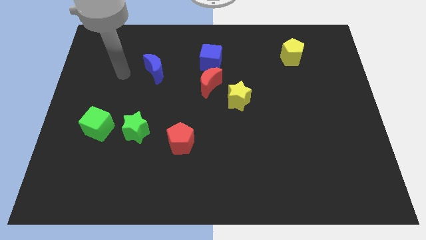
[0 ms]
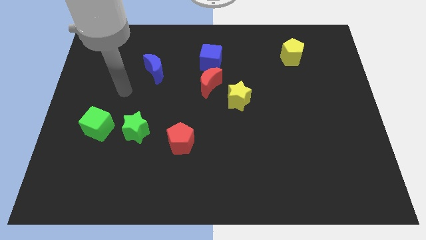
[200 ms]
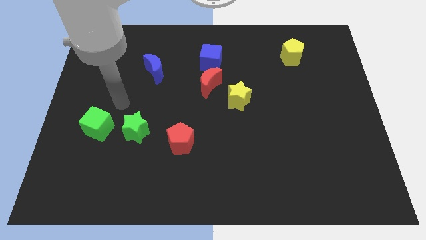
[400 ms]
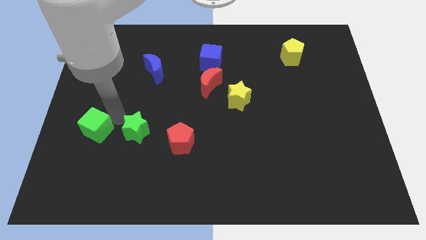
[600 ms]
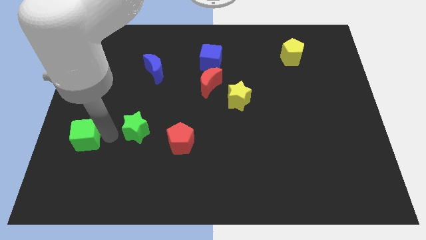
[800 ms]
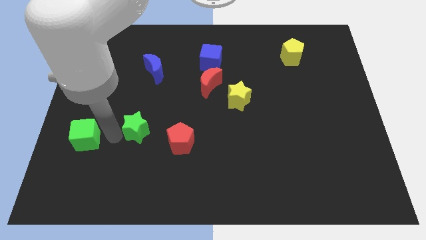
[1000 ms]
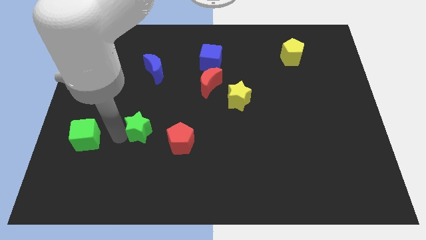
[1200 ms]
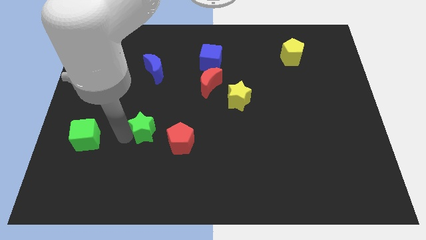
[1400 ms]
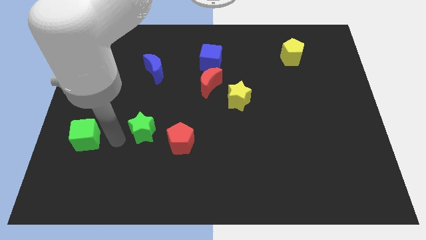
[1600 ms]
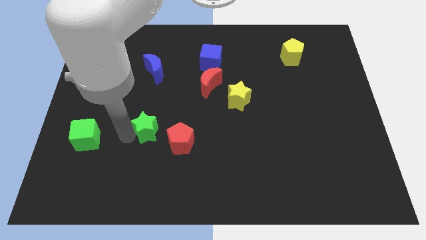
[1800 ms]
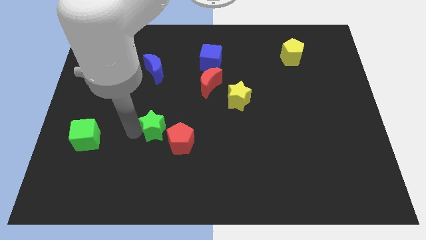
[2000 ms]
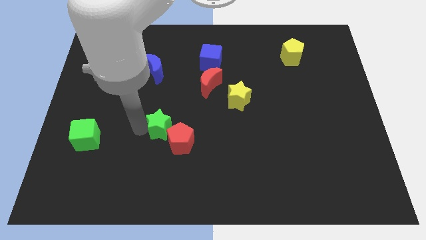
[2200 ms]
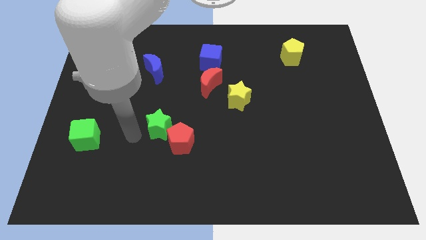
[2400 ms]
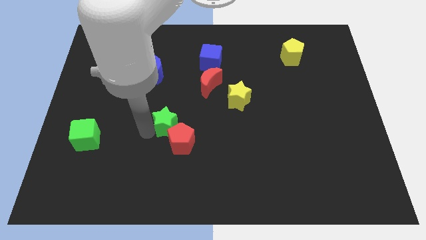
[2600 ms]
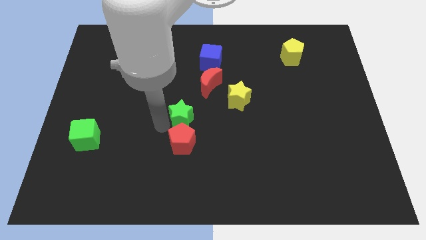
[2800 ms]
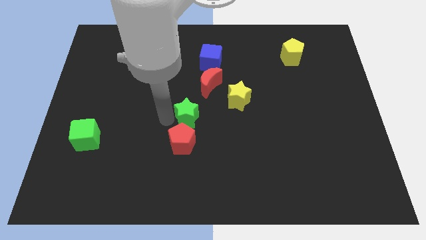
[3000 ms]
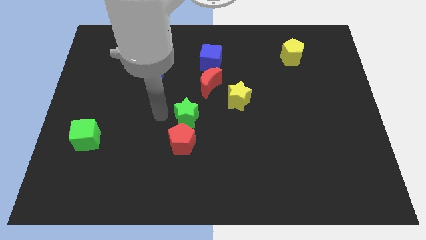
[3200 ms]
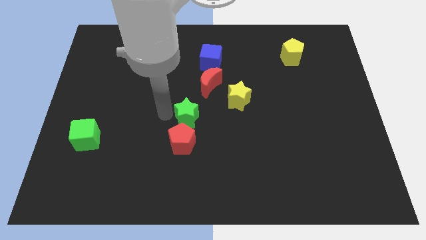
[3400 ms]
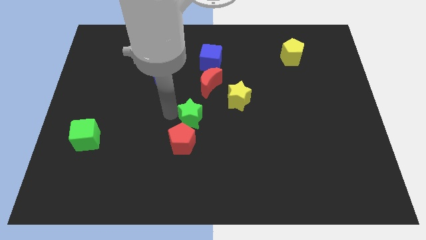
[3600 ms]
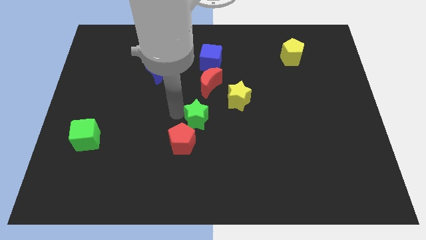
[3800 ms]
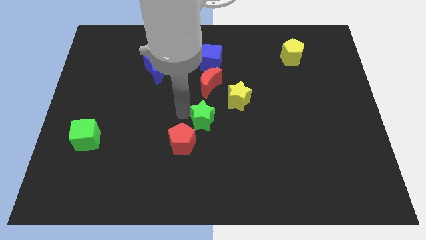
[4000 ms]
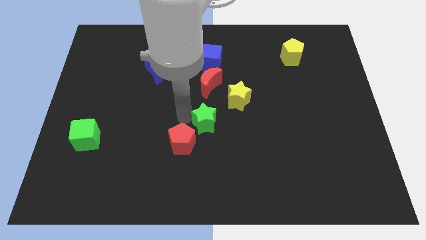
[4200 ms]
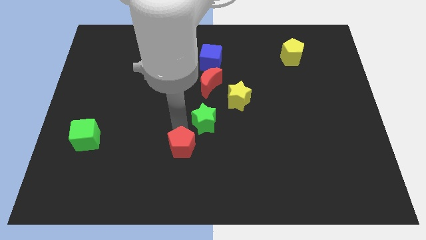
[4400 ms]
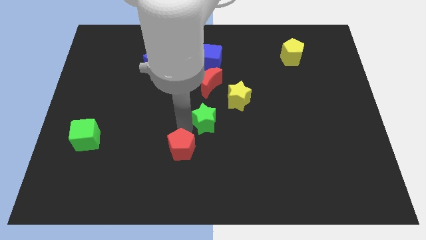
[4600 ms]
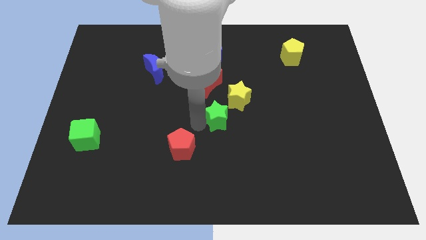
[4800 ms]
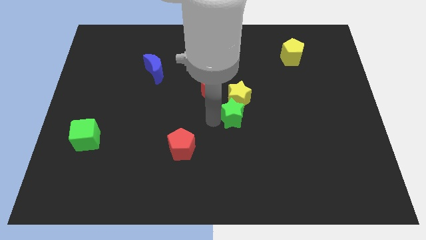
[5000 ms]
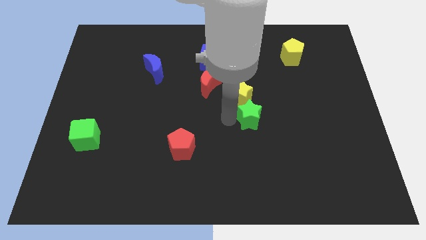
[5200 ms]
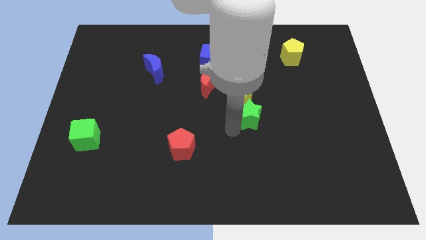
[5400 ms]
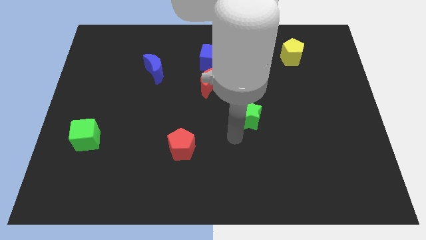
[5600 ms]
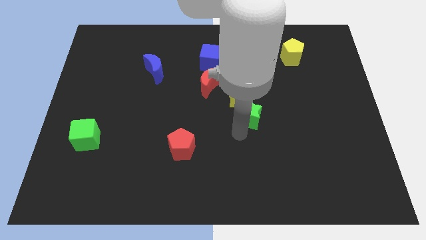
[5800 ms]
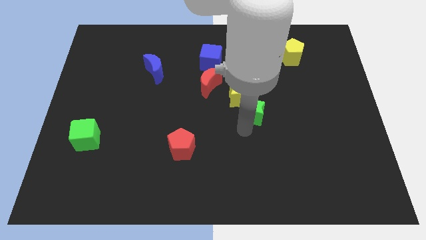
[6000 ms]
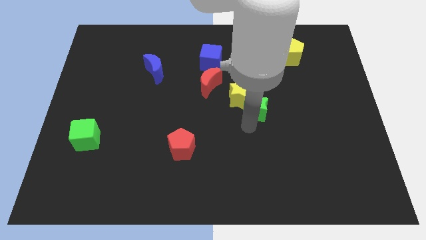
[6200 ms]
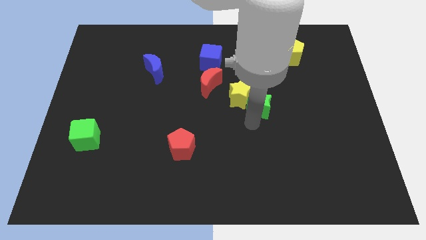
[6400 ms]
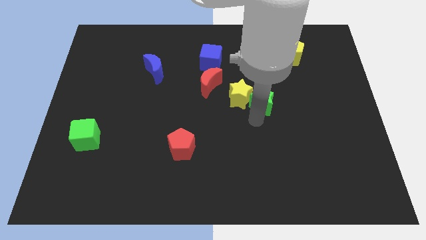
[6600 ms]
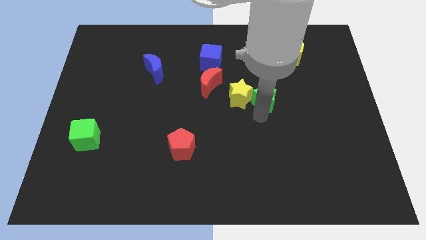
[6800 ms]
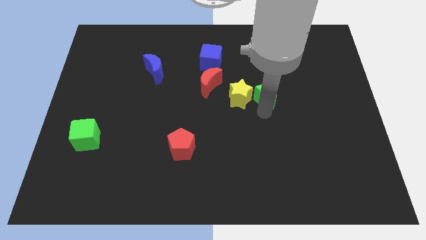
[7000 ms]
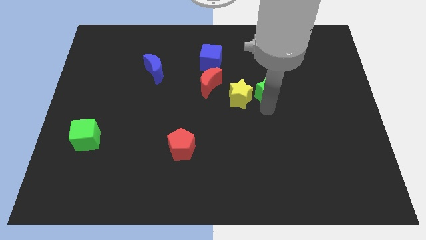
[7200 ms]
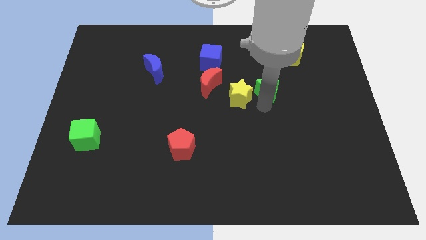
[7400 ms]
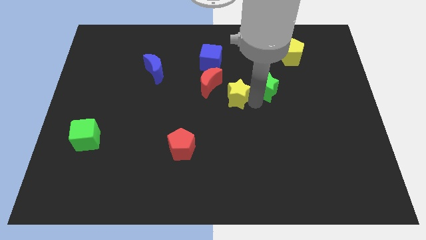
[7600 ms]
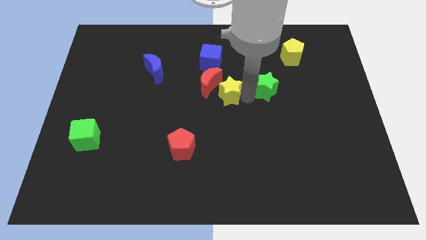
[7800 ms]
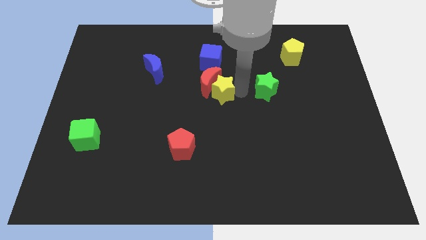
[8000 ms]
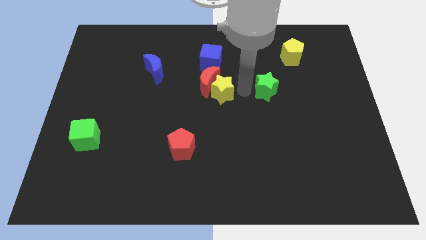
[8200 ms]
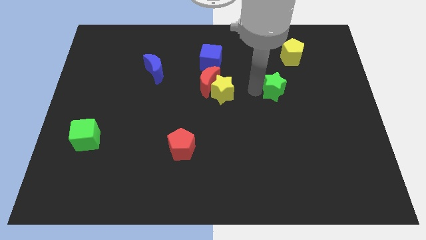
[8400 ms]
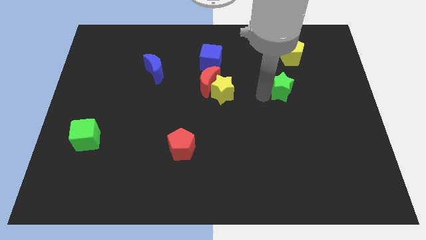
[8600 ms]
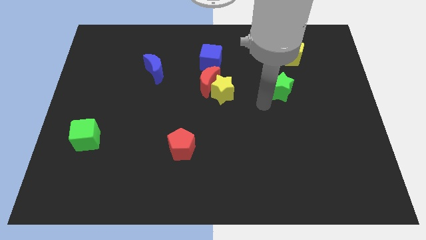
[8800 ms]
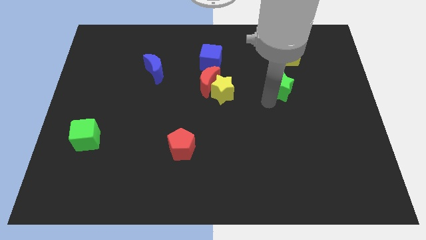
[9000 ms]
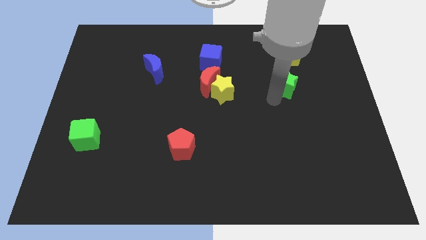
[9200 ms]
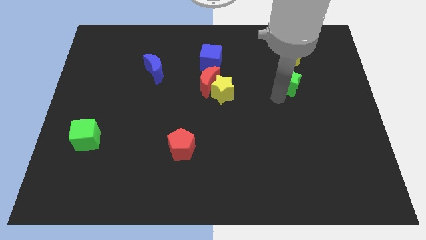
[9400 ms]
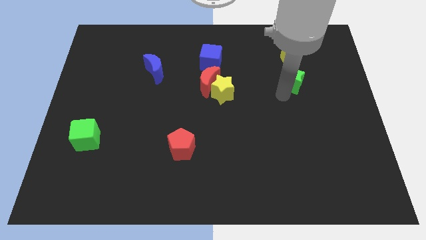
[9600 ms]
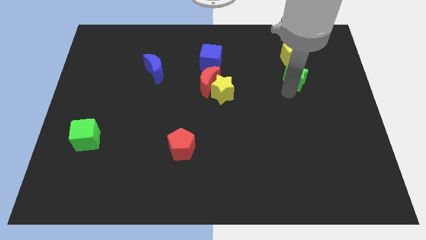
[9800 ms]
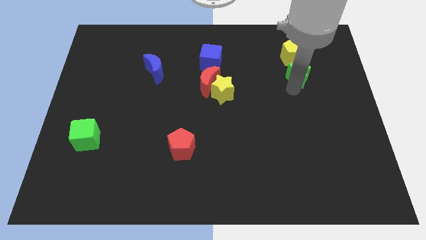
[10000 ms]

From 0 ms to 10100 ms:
slide the green star to the bottom right of the yellow pentagon

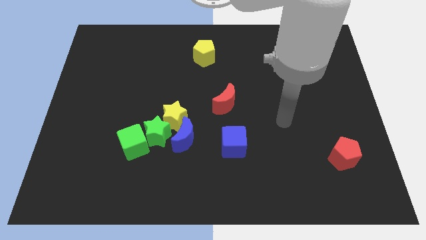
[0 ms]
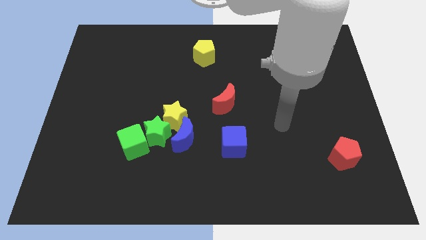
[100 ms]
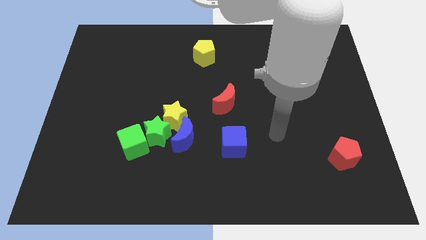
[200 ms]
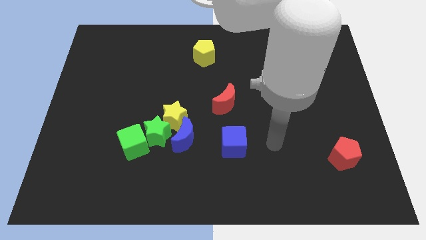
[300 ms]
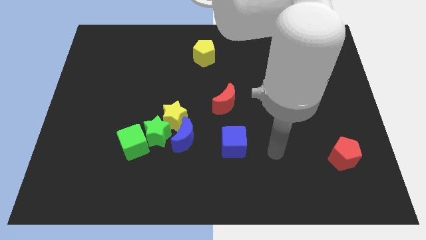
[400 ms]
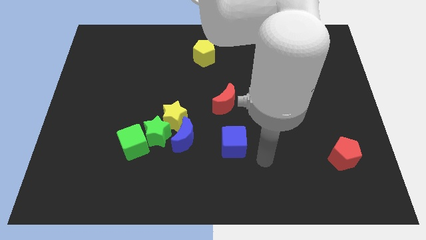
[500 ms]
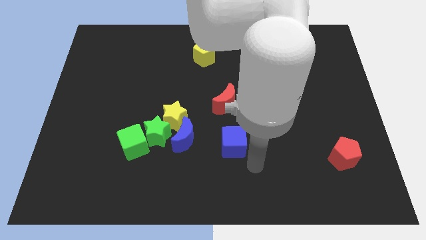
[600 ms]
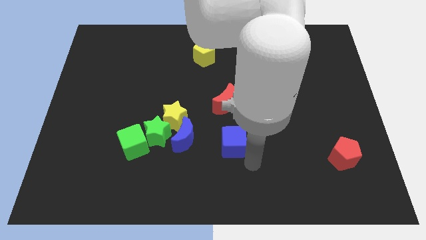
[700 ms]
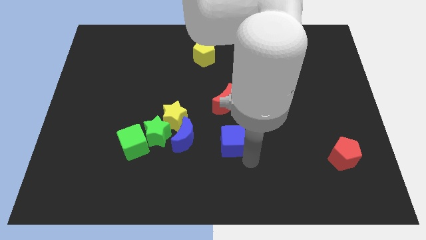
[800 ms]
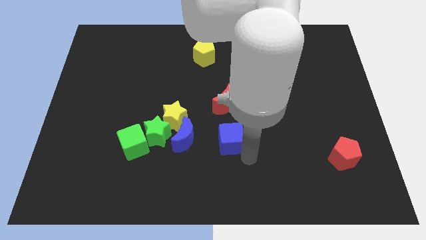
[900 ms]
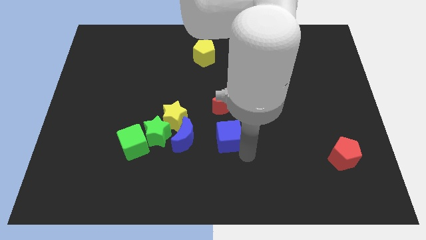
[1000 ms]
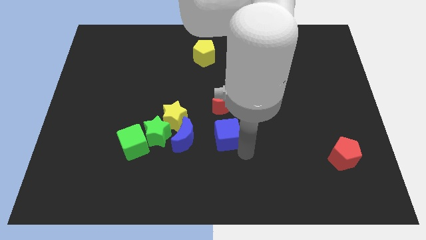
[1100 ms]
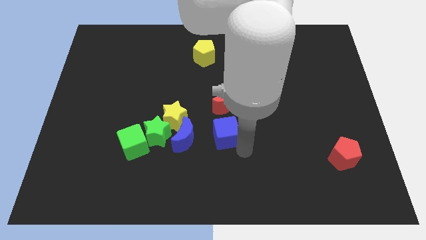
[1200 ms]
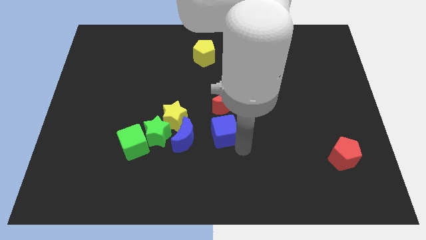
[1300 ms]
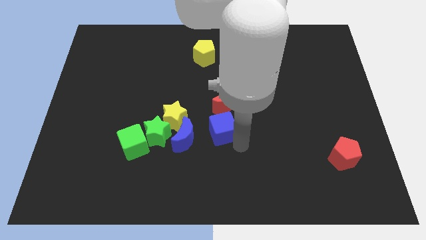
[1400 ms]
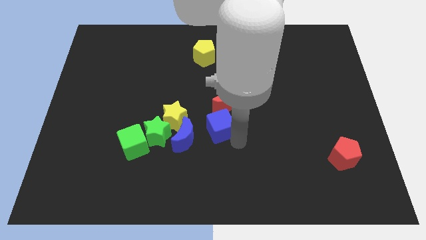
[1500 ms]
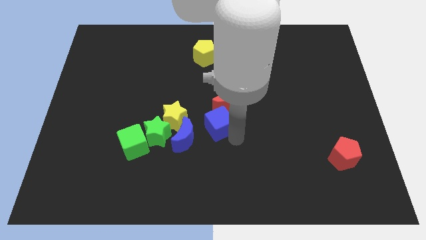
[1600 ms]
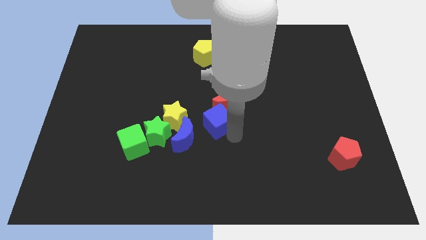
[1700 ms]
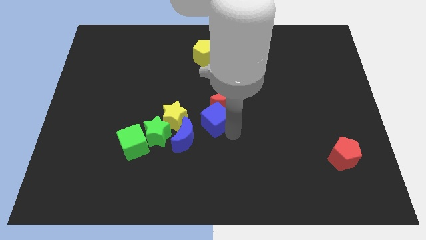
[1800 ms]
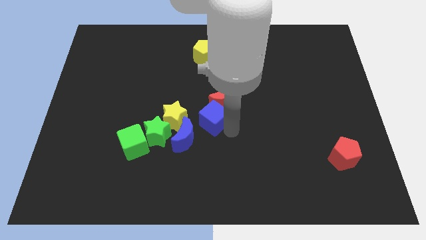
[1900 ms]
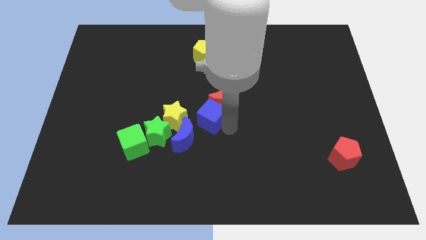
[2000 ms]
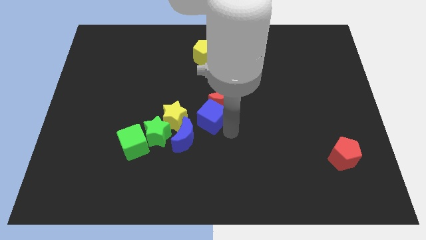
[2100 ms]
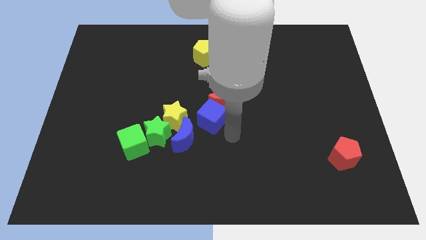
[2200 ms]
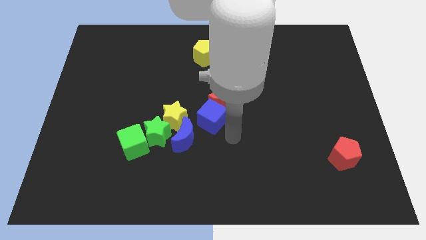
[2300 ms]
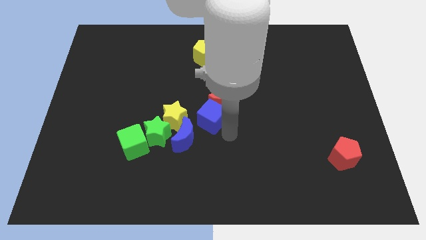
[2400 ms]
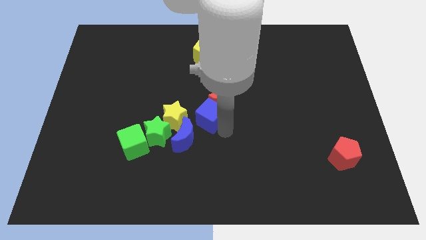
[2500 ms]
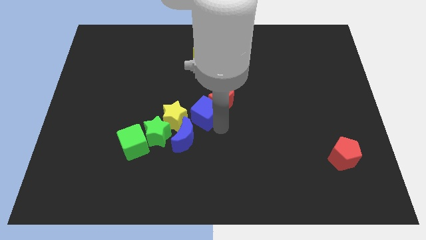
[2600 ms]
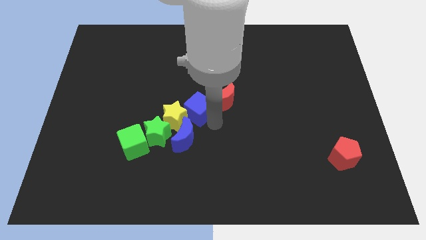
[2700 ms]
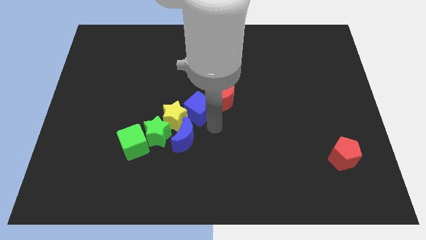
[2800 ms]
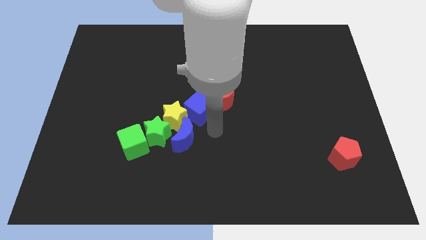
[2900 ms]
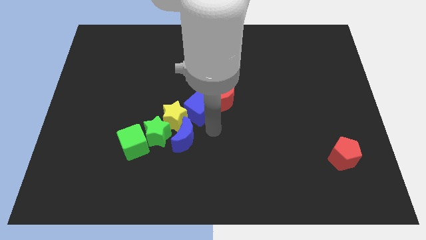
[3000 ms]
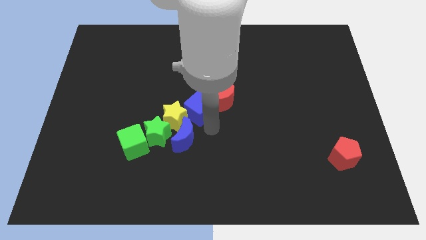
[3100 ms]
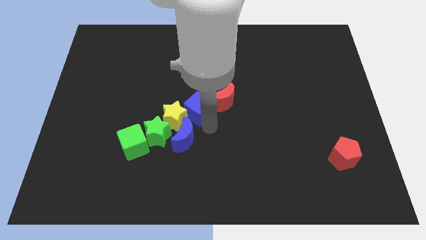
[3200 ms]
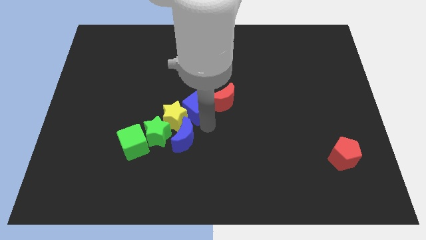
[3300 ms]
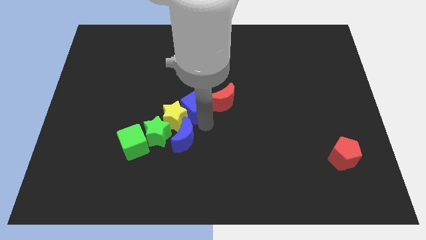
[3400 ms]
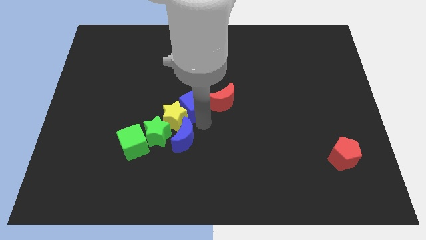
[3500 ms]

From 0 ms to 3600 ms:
slide the blue cube to the top of the yellow star
